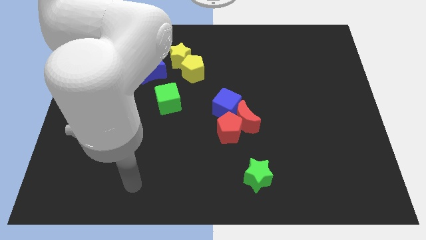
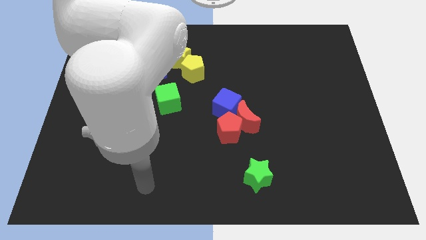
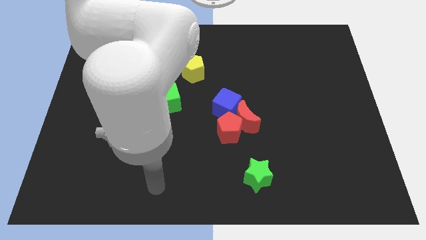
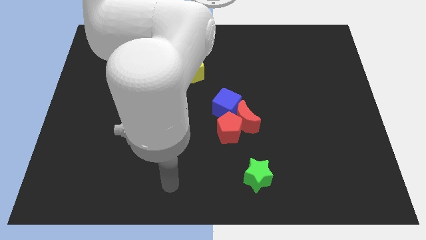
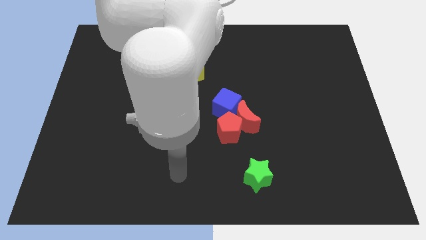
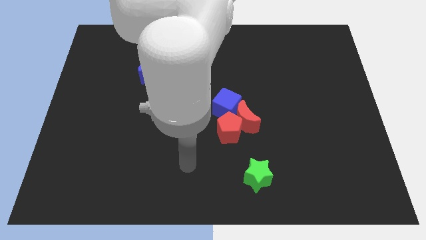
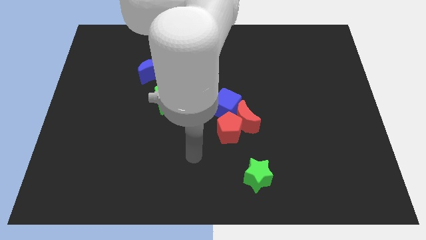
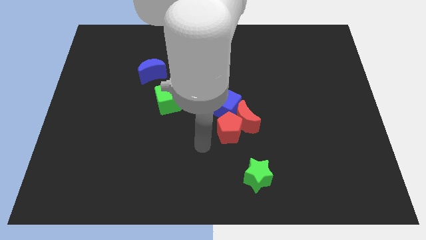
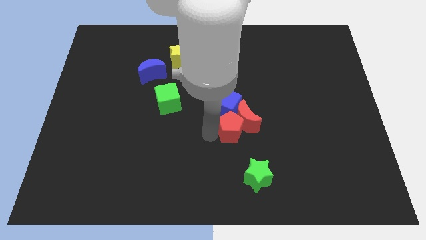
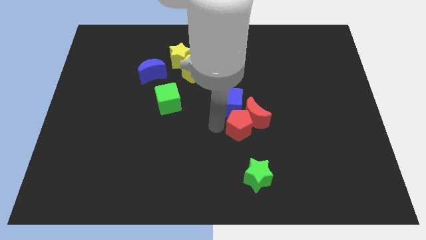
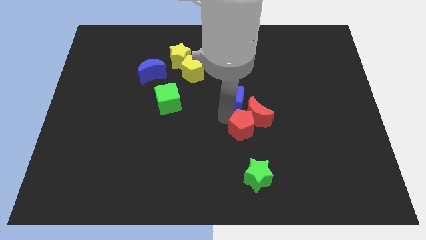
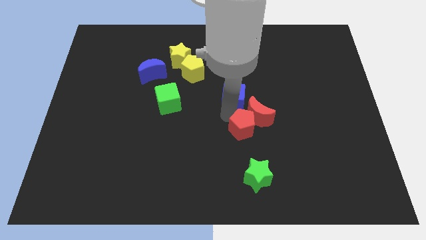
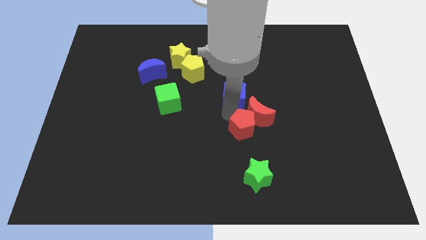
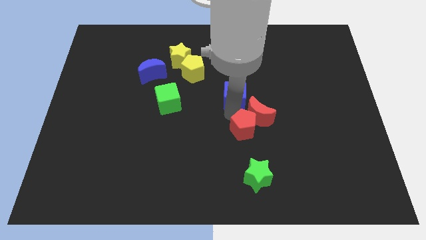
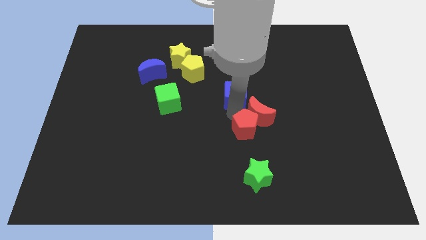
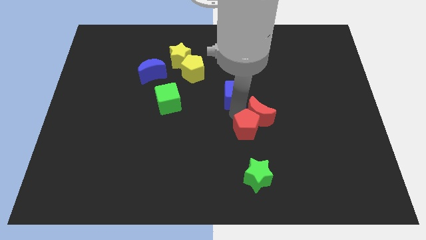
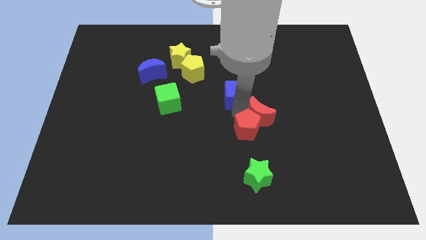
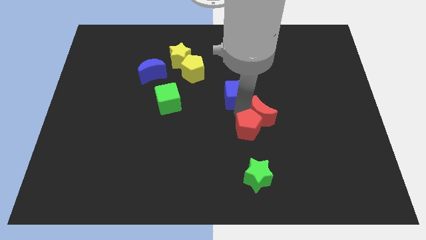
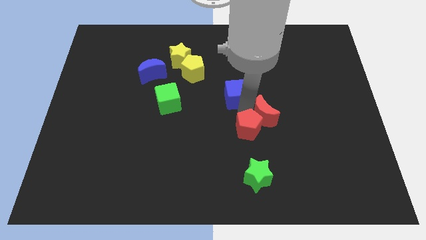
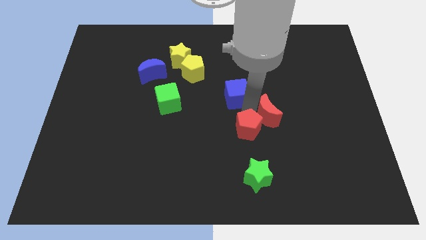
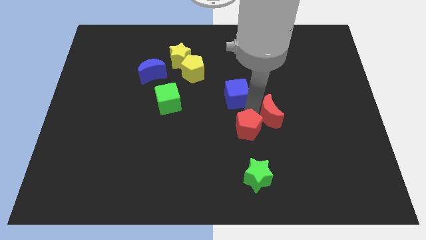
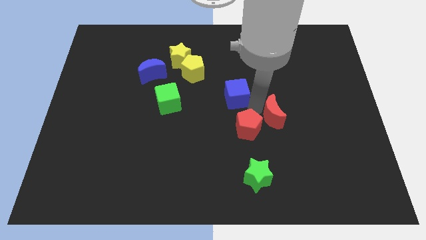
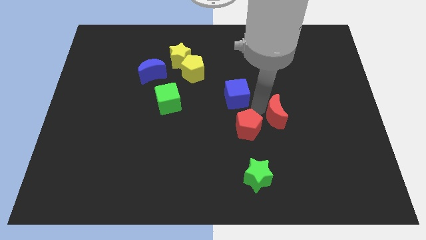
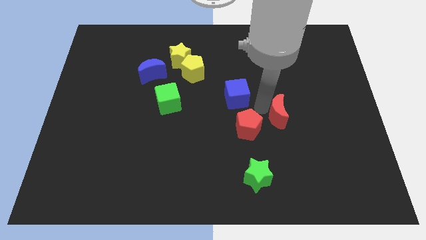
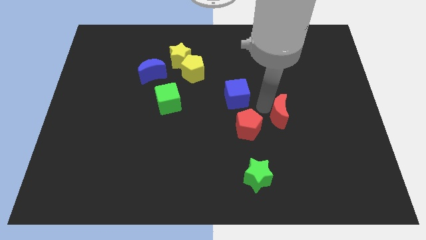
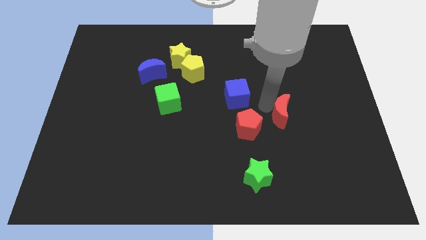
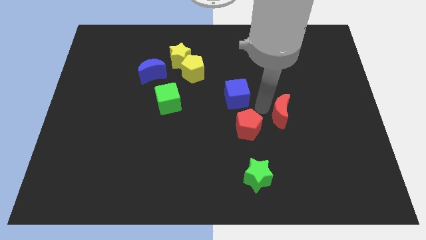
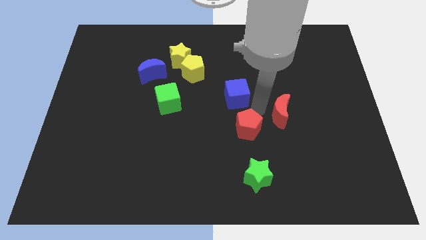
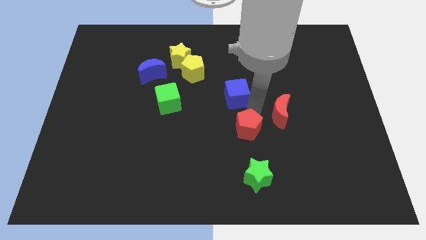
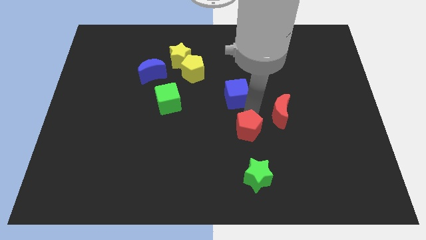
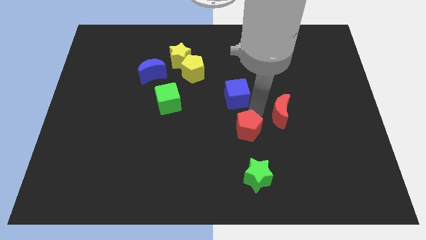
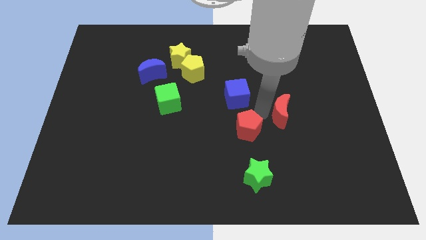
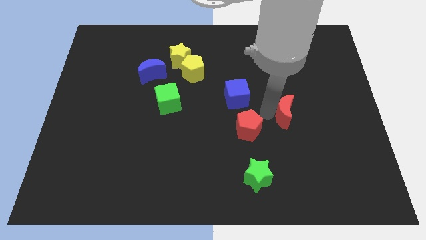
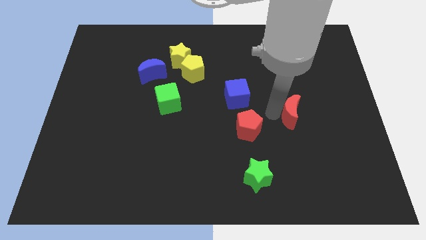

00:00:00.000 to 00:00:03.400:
pull the red moon apart from the red pentagon and blue cube

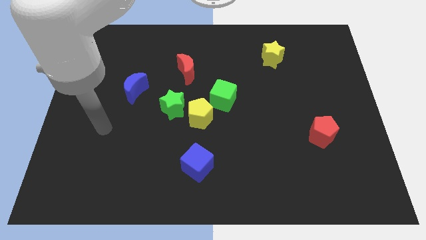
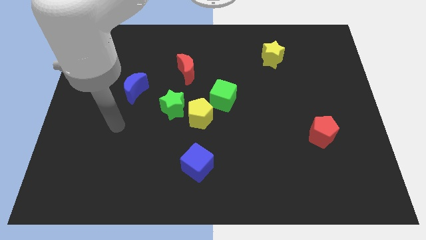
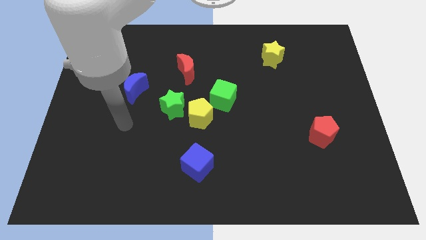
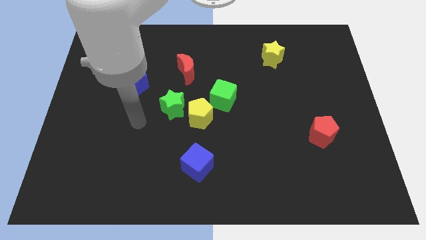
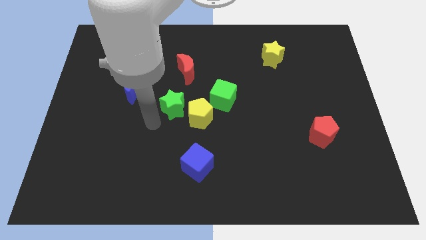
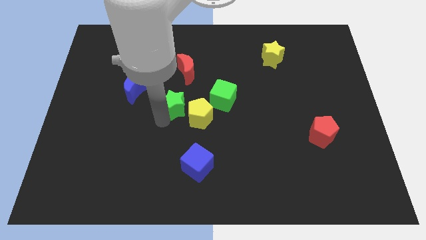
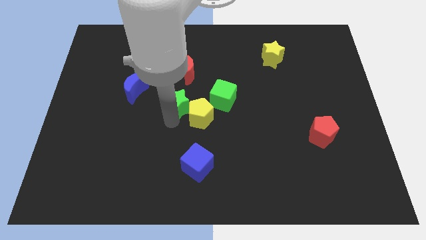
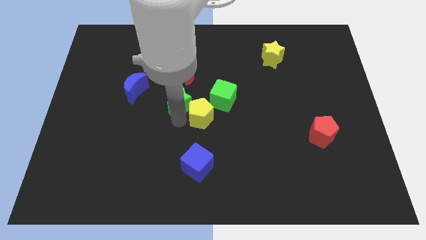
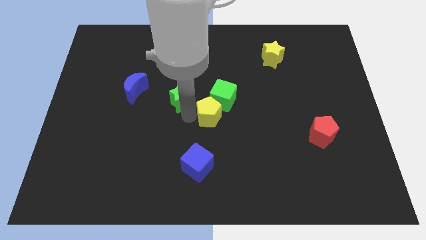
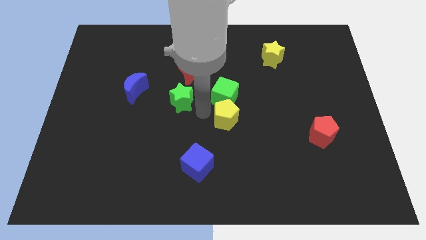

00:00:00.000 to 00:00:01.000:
separate the green star from the yellow pentagon

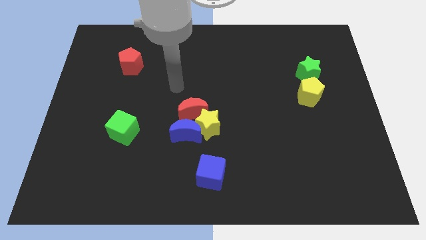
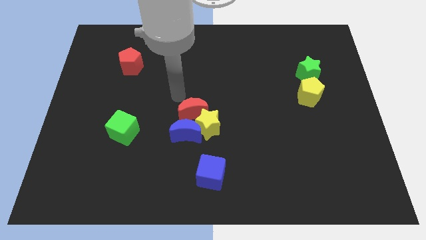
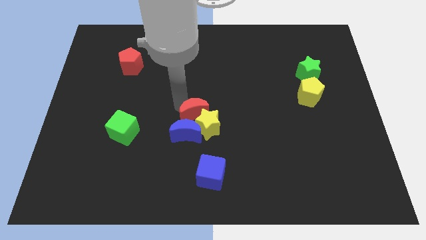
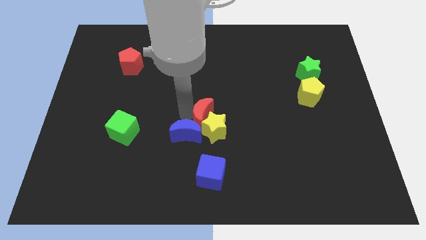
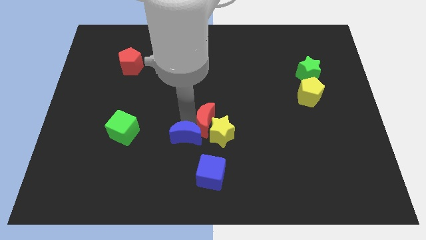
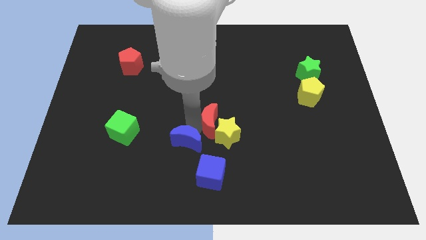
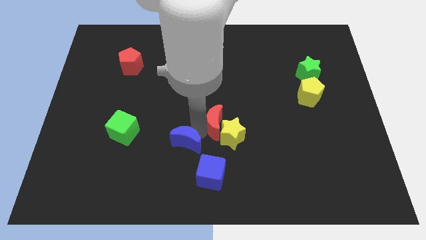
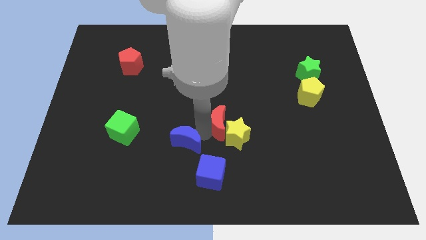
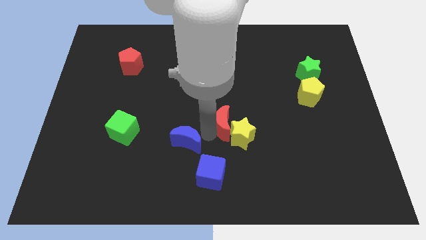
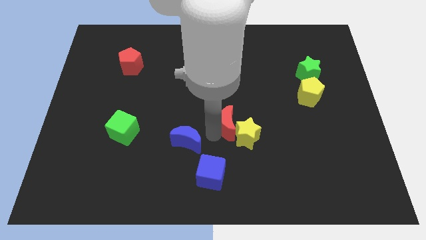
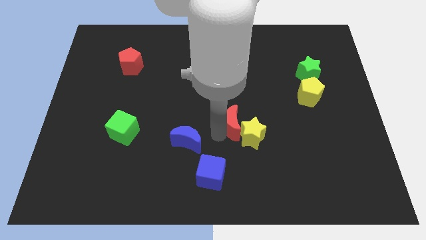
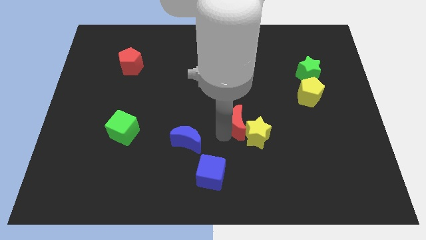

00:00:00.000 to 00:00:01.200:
pull the yellow star apart from the blue moon and red moon

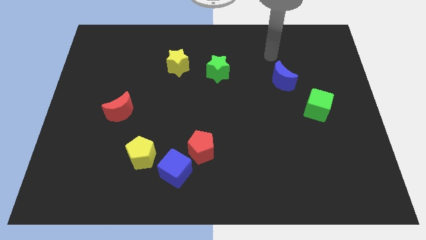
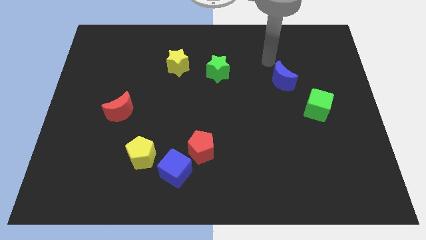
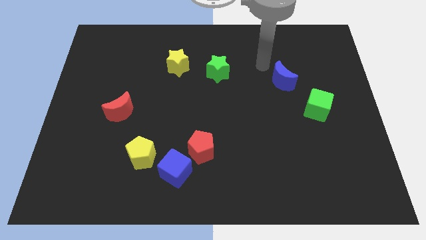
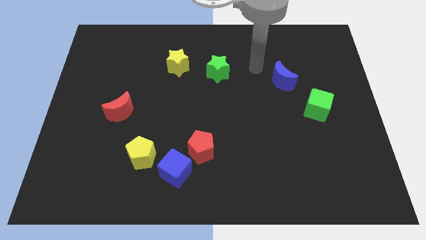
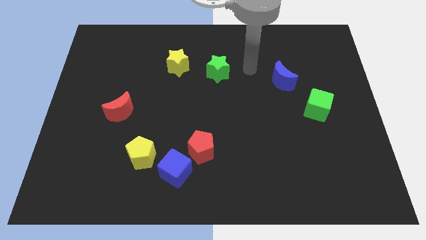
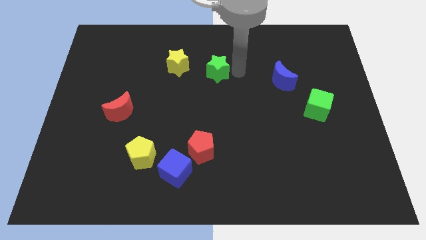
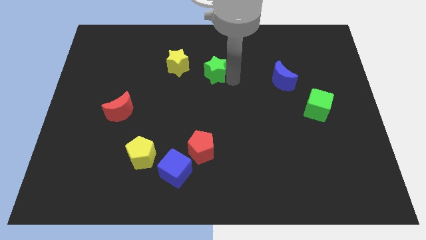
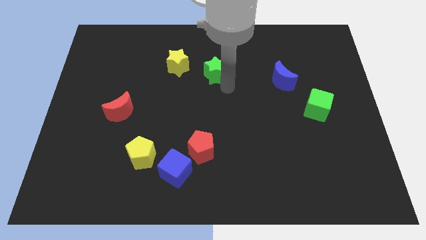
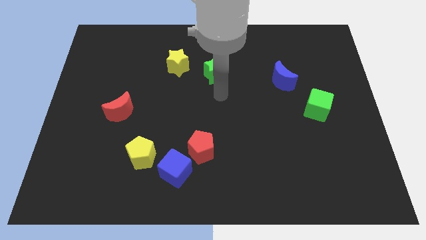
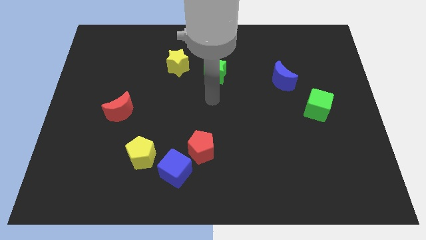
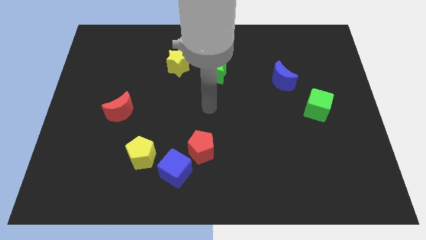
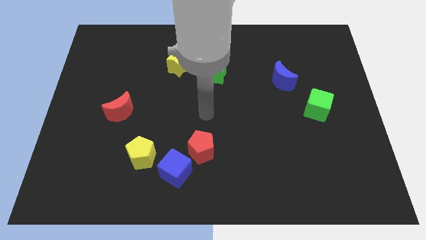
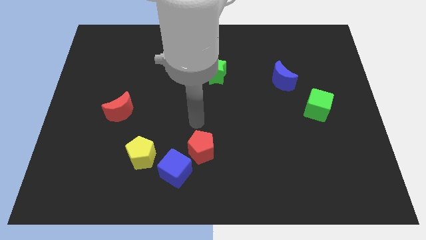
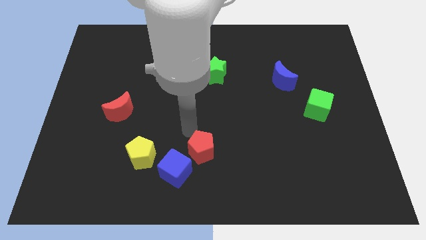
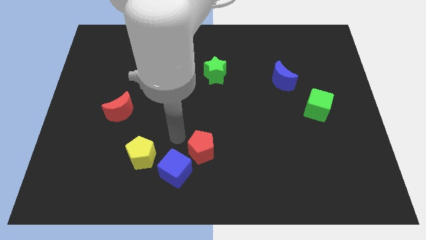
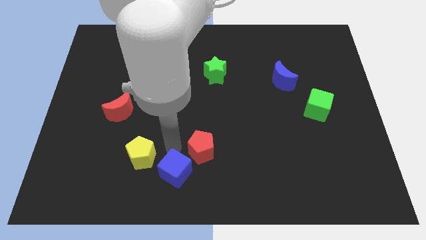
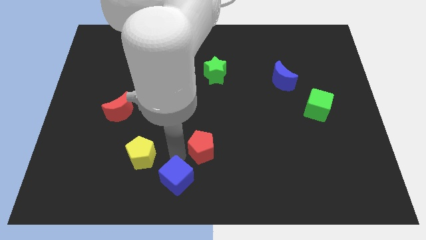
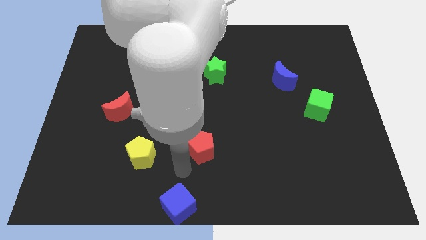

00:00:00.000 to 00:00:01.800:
separate the red pentagon from the blue cube

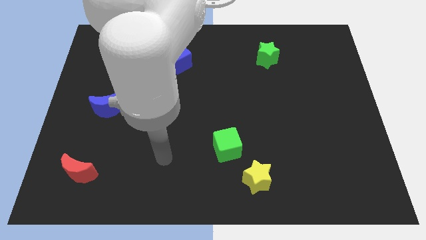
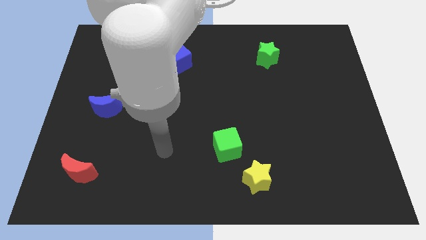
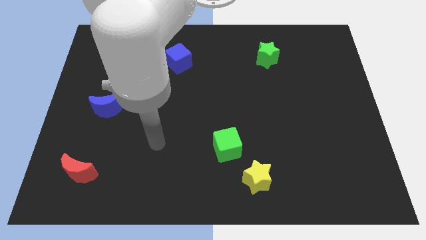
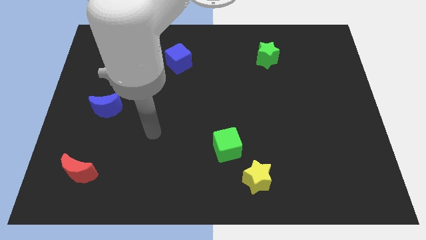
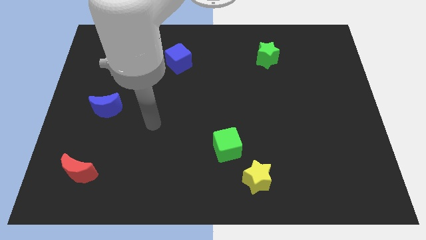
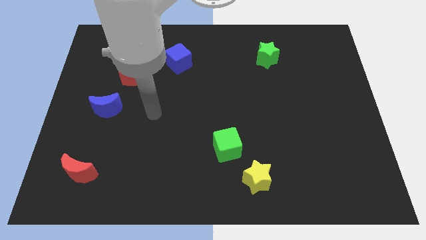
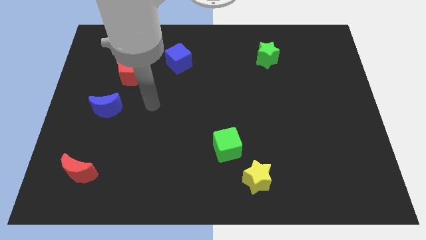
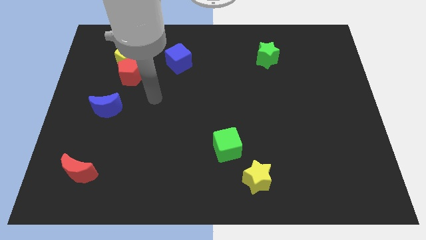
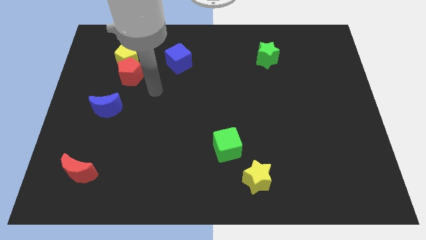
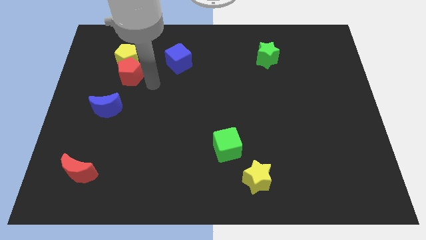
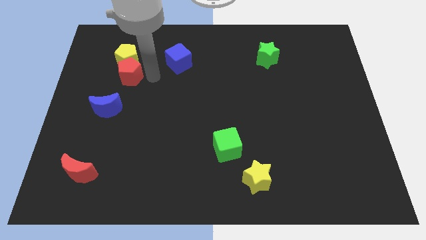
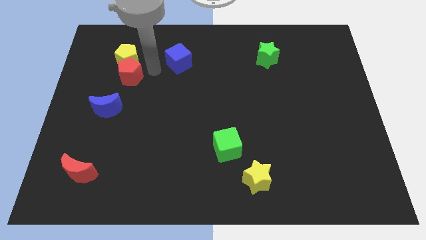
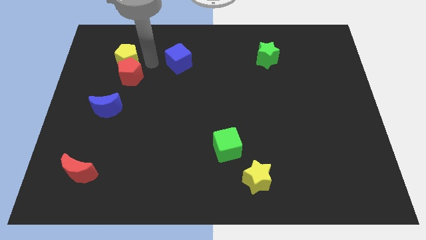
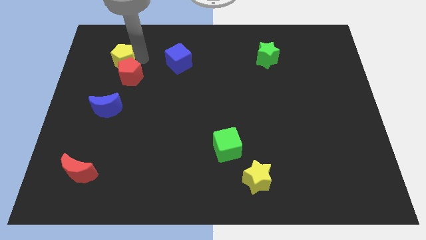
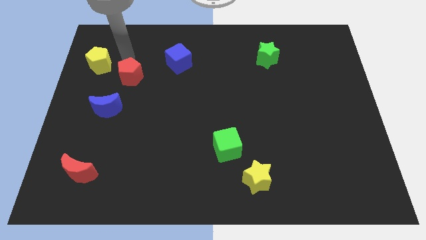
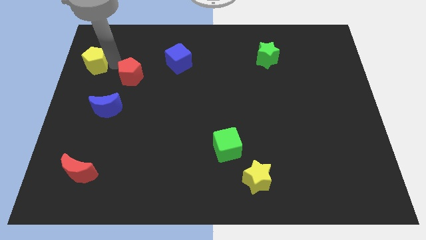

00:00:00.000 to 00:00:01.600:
move the red pentagon away from the yellow pentagon
